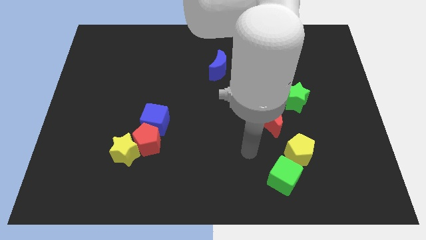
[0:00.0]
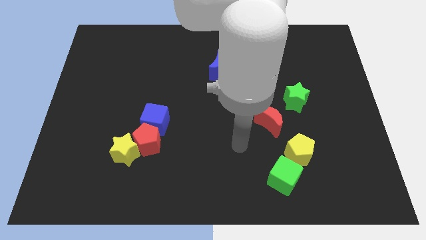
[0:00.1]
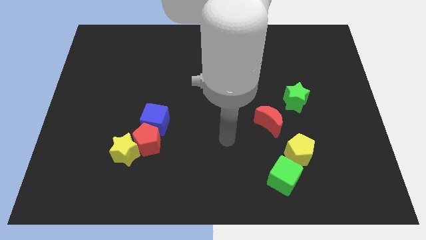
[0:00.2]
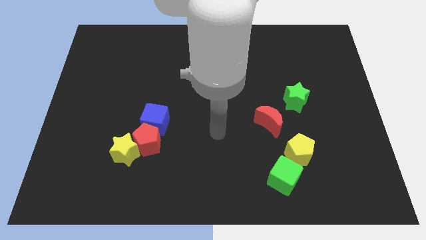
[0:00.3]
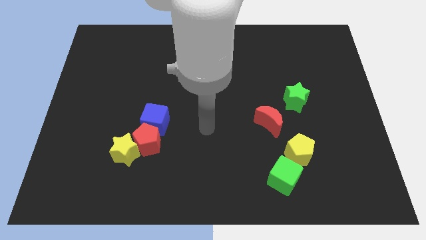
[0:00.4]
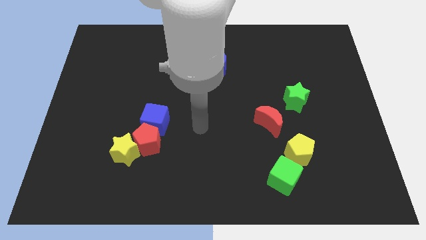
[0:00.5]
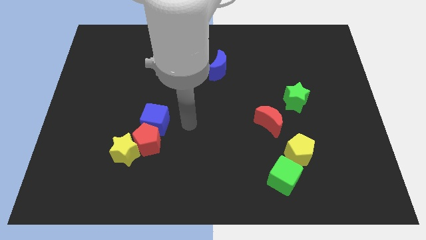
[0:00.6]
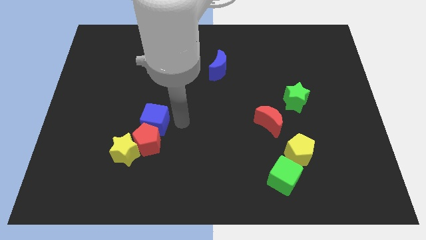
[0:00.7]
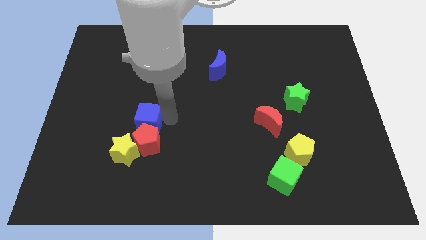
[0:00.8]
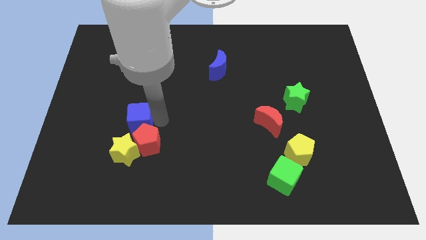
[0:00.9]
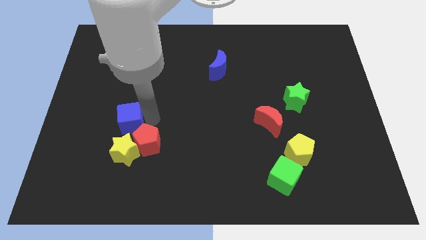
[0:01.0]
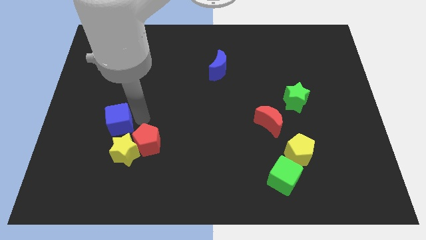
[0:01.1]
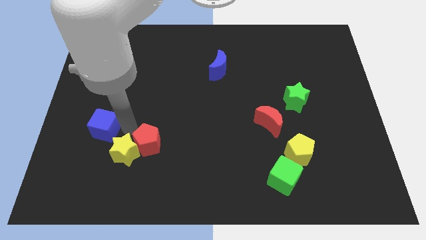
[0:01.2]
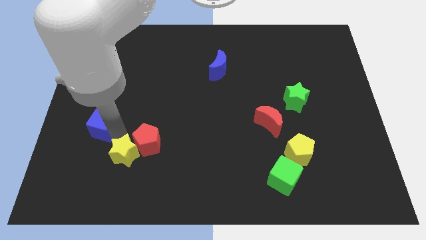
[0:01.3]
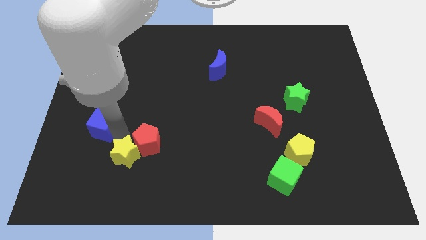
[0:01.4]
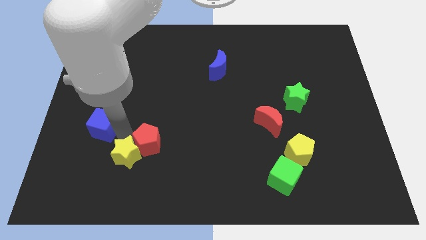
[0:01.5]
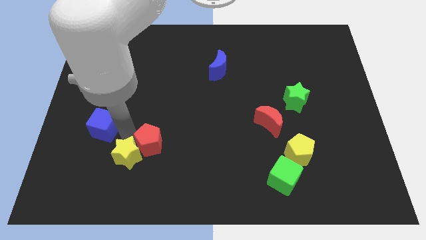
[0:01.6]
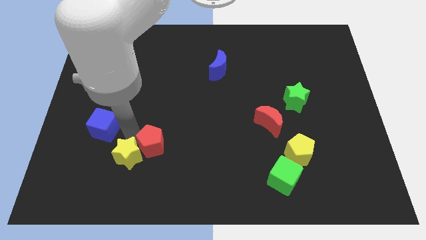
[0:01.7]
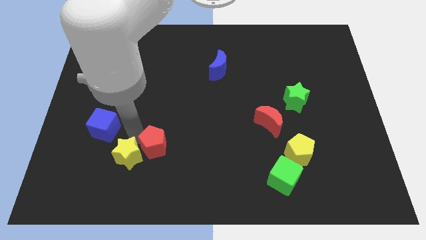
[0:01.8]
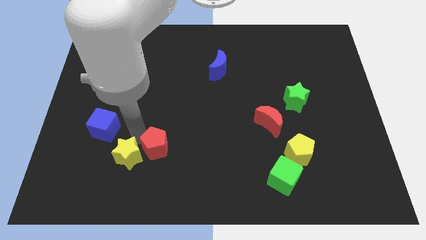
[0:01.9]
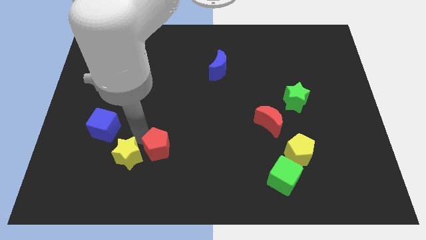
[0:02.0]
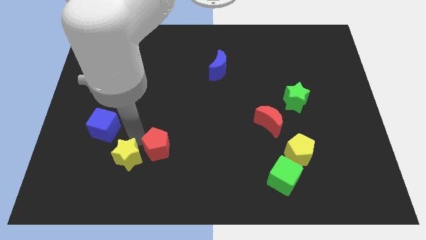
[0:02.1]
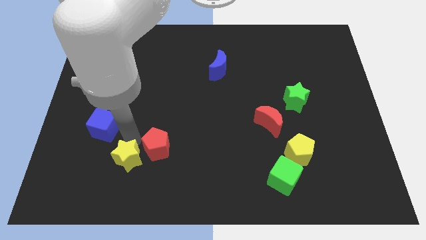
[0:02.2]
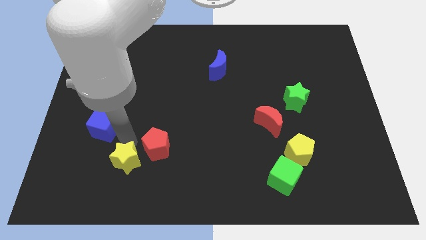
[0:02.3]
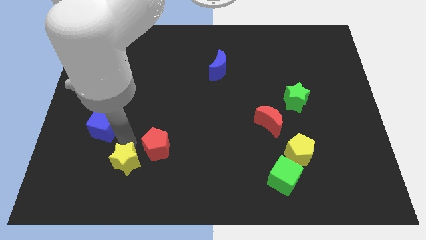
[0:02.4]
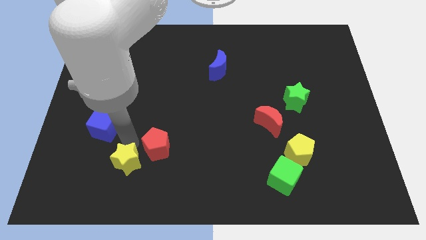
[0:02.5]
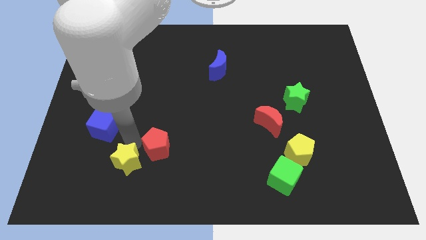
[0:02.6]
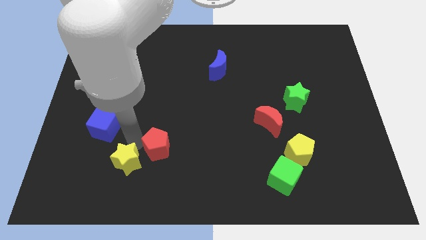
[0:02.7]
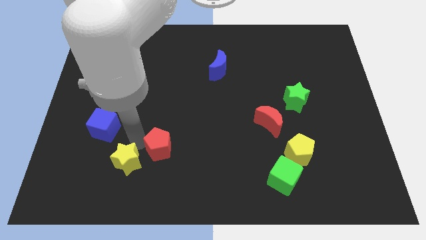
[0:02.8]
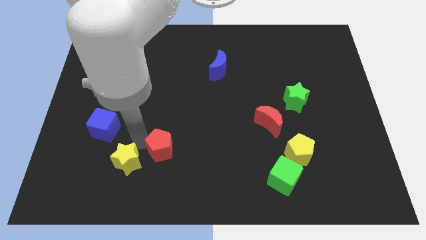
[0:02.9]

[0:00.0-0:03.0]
move the red pentagon away from the yellow star and blue cube

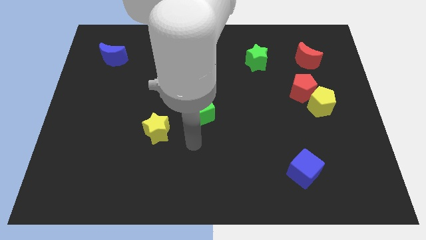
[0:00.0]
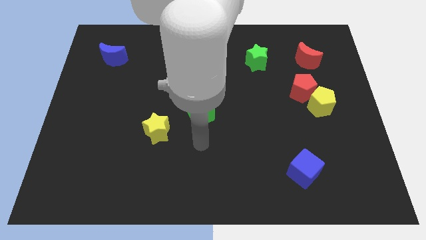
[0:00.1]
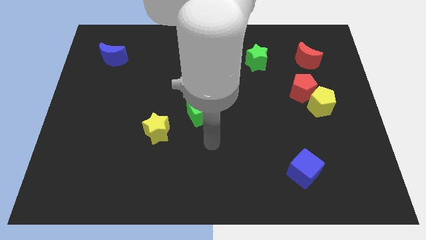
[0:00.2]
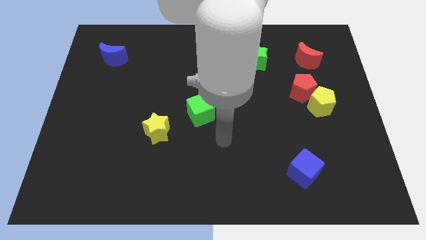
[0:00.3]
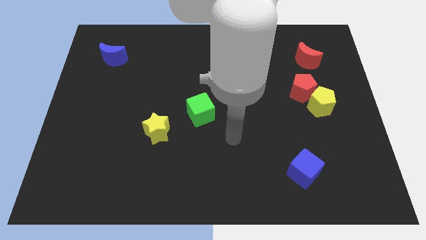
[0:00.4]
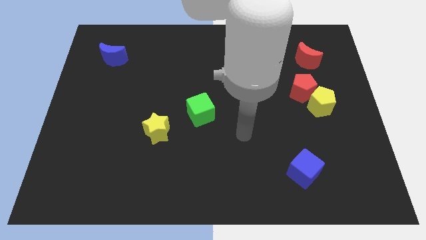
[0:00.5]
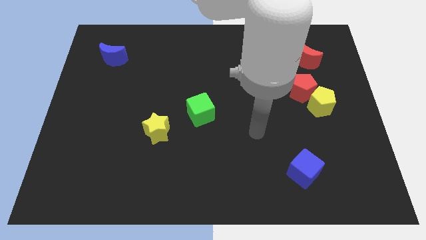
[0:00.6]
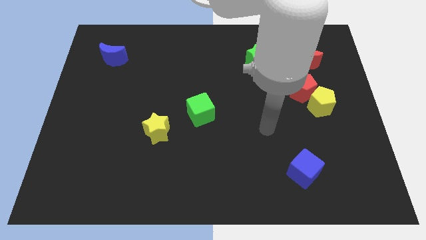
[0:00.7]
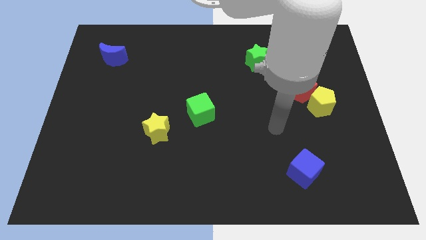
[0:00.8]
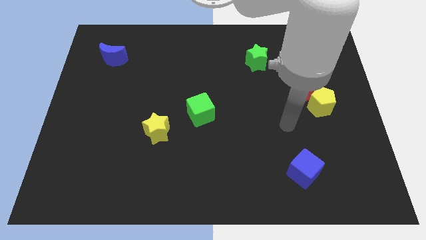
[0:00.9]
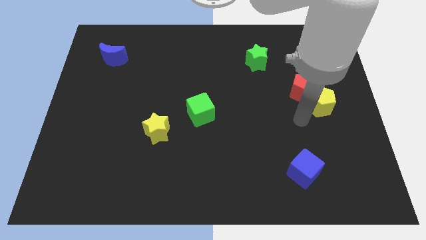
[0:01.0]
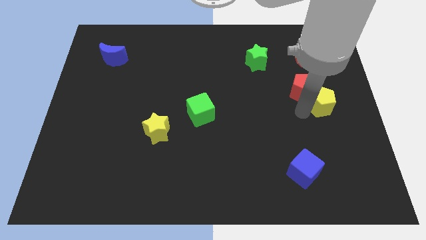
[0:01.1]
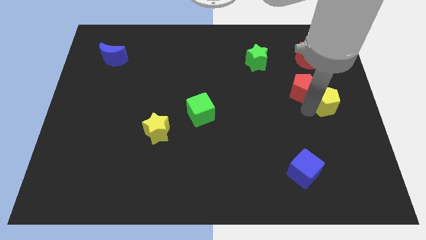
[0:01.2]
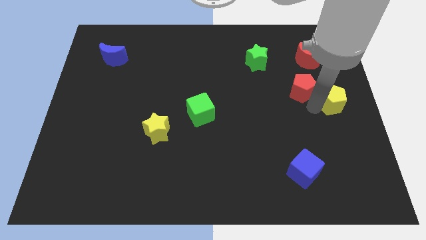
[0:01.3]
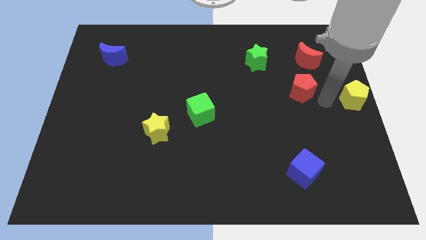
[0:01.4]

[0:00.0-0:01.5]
separate the red pentagon from the yellow pentagon

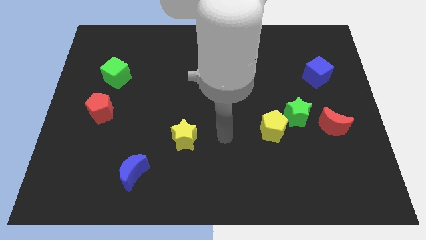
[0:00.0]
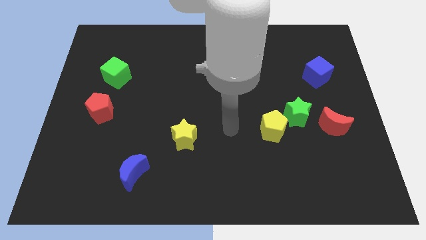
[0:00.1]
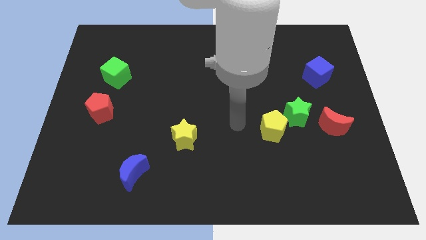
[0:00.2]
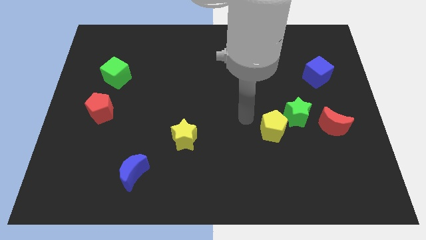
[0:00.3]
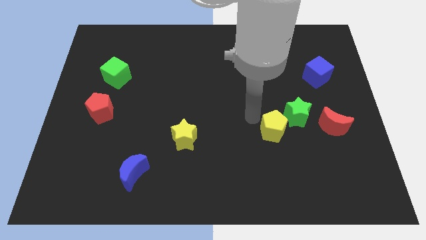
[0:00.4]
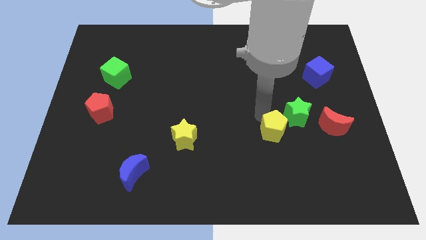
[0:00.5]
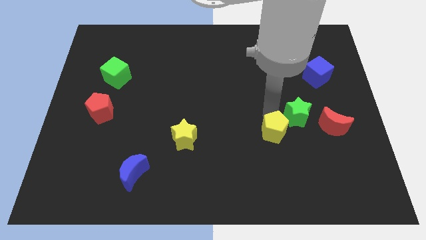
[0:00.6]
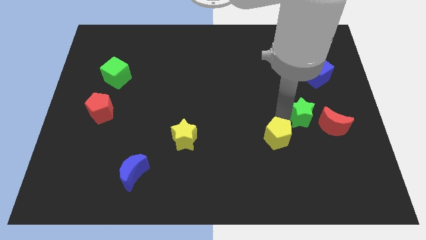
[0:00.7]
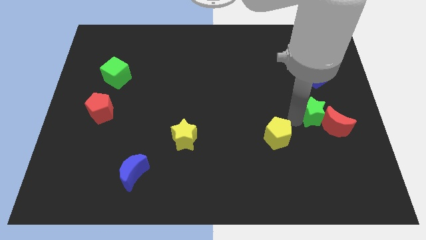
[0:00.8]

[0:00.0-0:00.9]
pull the yellow pentagon apart from the green star

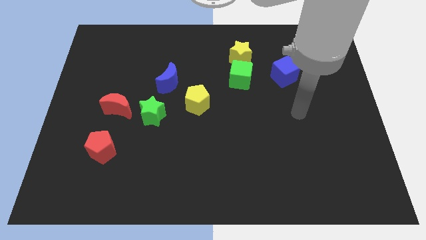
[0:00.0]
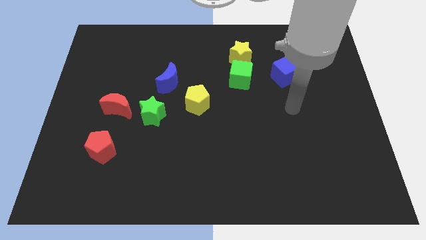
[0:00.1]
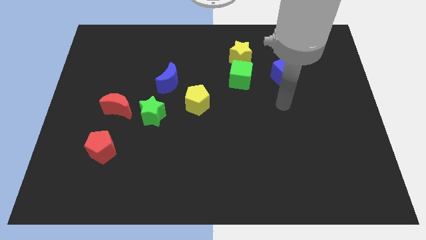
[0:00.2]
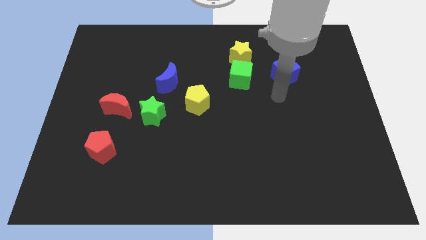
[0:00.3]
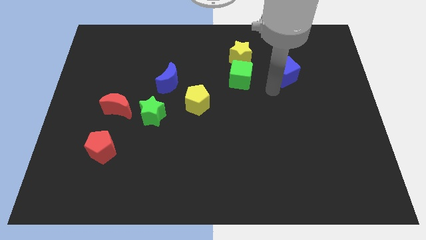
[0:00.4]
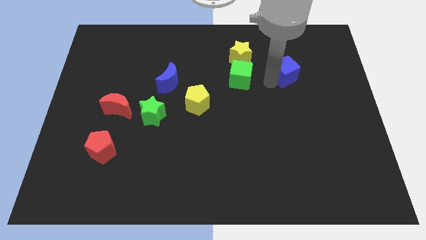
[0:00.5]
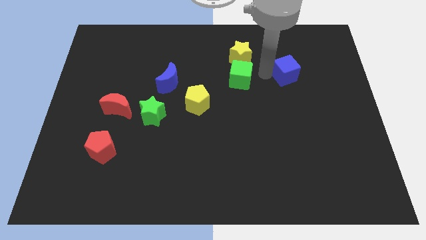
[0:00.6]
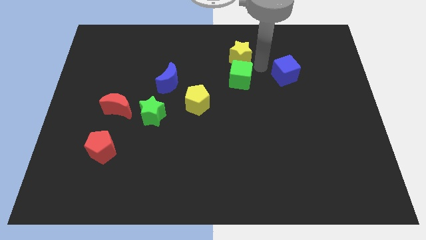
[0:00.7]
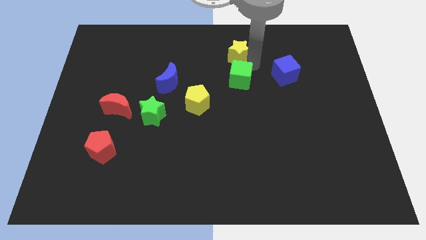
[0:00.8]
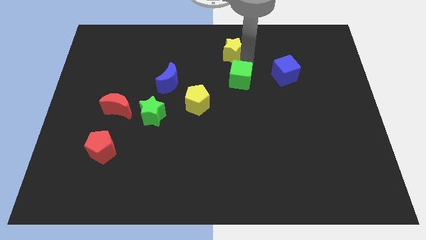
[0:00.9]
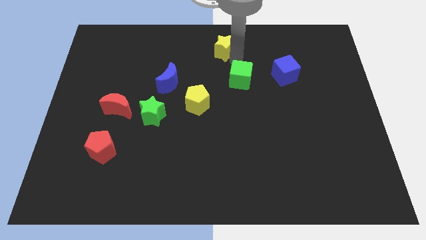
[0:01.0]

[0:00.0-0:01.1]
move the green cube away from the yellow star

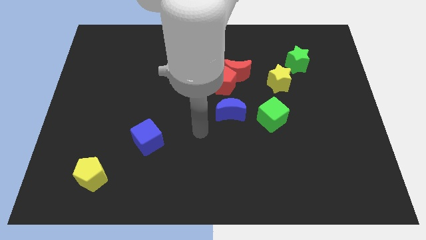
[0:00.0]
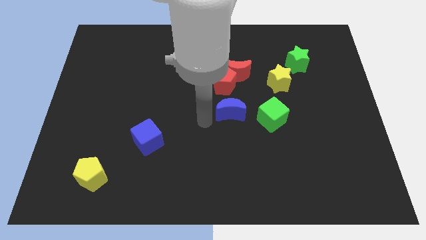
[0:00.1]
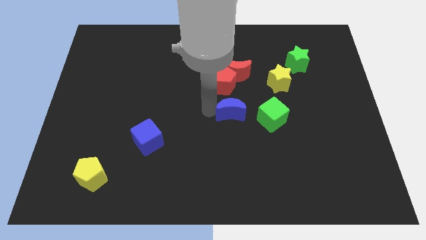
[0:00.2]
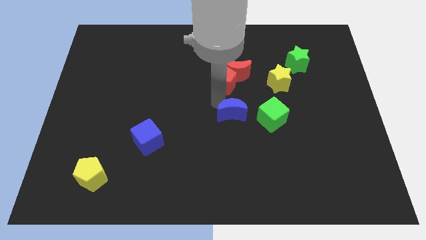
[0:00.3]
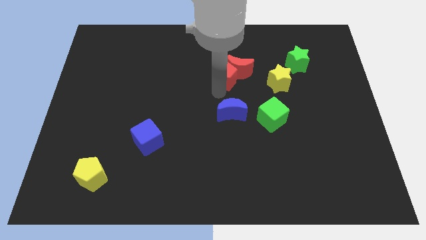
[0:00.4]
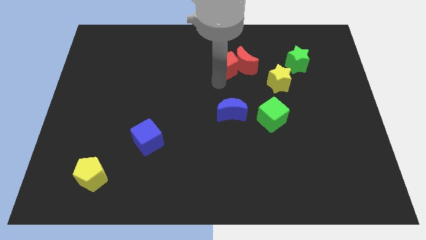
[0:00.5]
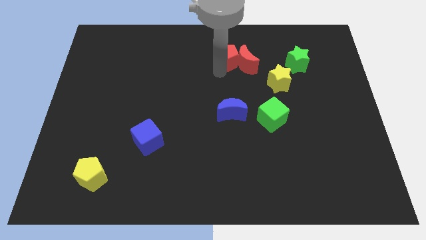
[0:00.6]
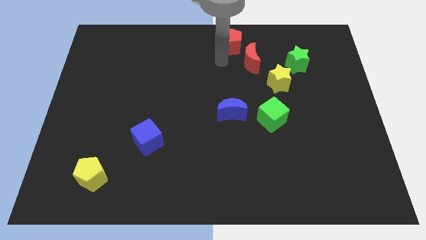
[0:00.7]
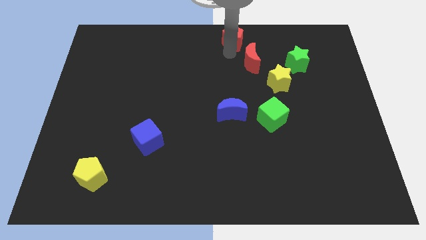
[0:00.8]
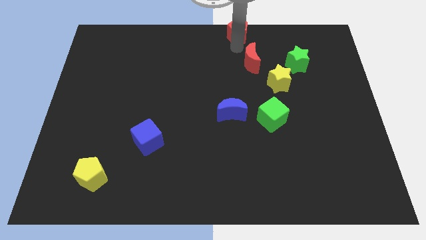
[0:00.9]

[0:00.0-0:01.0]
pull the red moon apart from the red pentagon

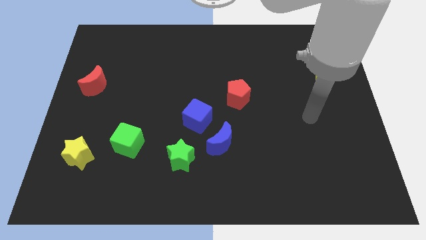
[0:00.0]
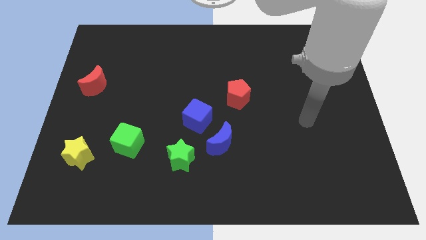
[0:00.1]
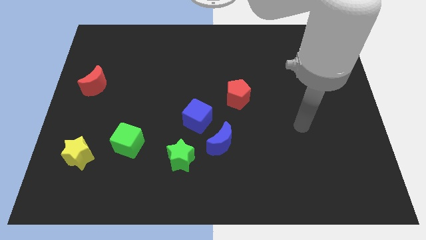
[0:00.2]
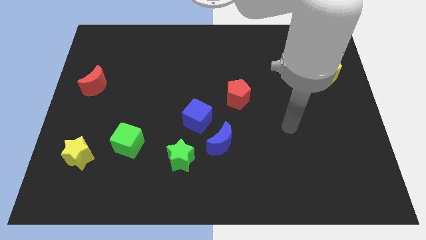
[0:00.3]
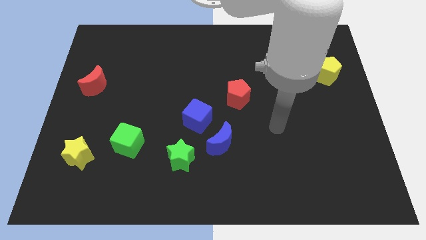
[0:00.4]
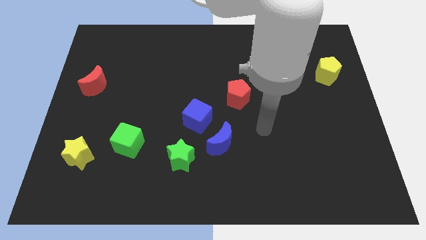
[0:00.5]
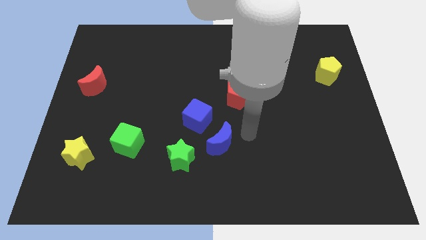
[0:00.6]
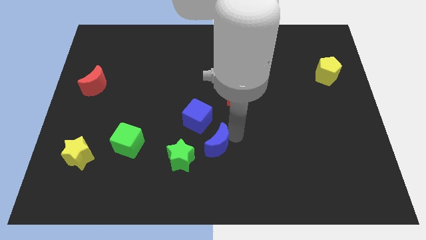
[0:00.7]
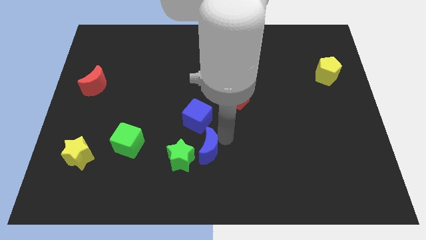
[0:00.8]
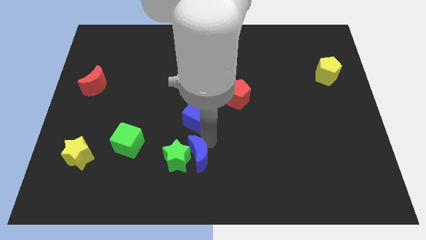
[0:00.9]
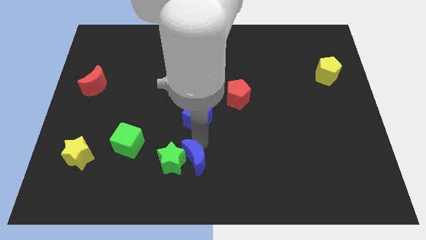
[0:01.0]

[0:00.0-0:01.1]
move the blue cube away from the blue moon

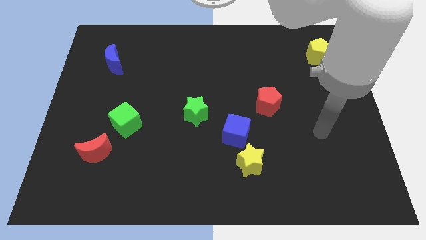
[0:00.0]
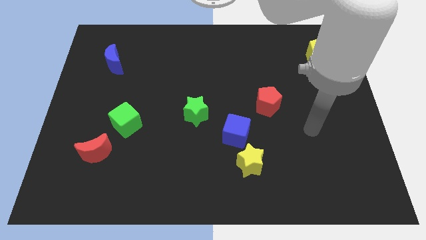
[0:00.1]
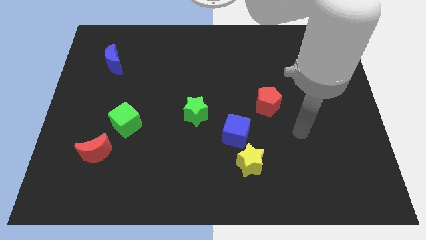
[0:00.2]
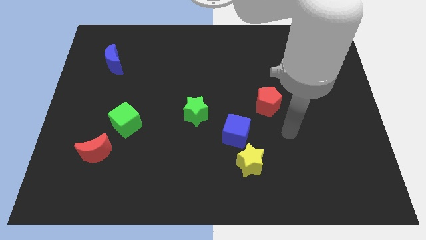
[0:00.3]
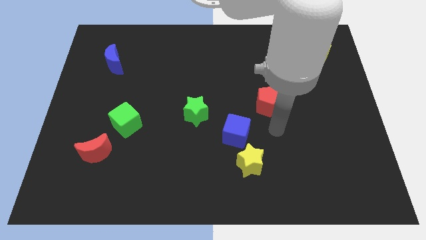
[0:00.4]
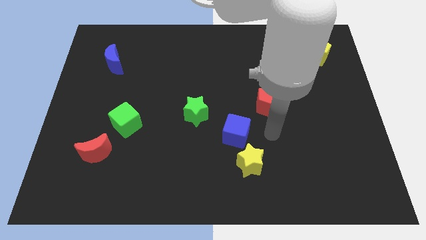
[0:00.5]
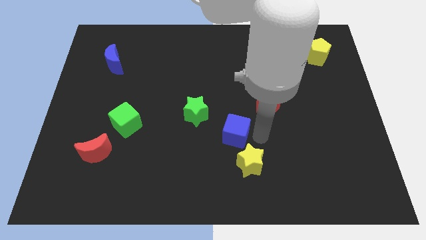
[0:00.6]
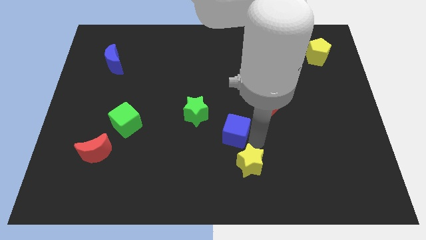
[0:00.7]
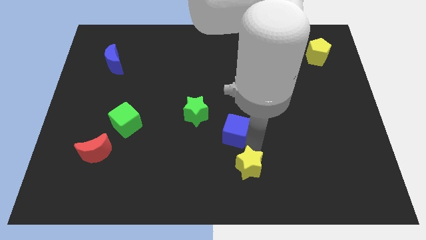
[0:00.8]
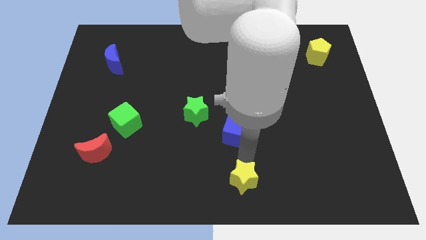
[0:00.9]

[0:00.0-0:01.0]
pull the blue cube apart from the yellow star
